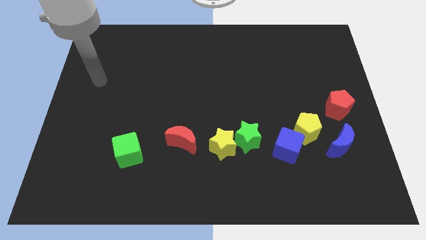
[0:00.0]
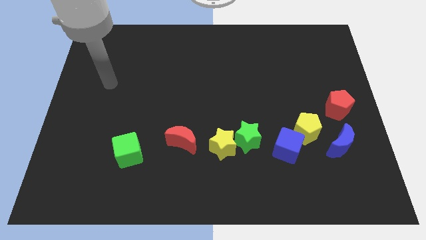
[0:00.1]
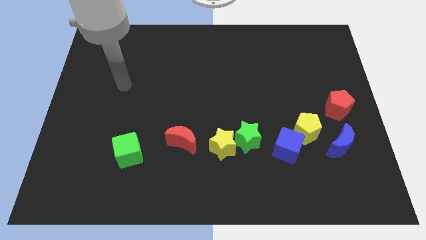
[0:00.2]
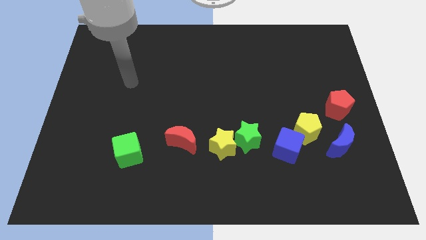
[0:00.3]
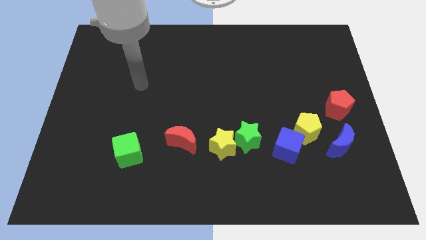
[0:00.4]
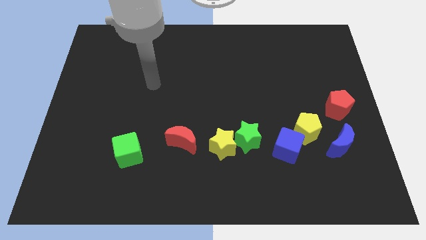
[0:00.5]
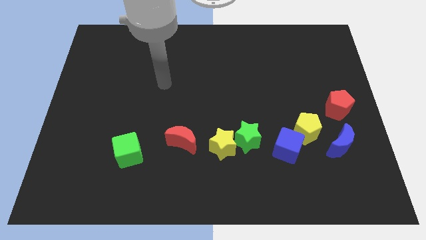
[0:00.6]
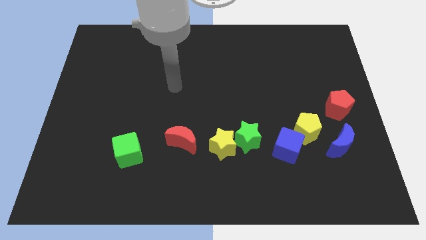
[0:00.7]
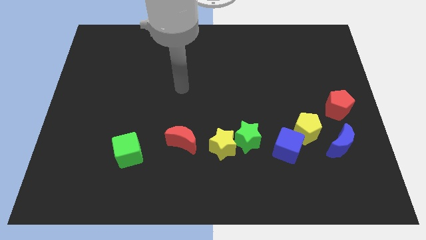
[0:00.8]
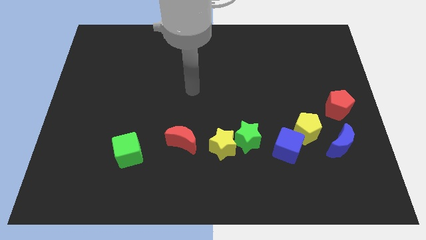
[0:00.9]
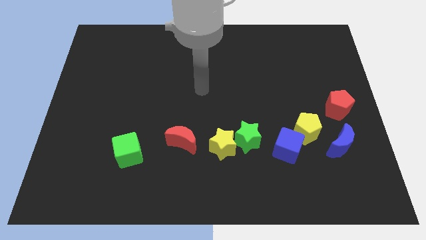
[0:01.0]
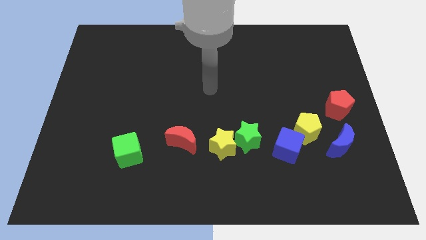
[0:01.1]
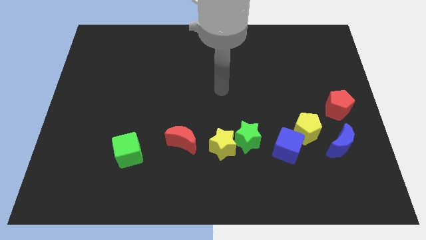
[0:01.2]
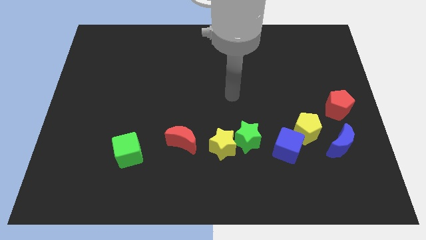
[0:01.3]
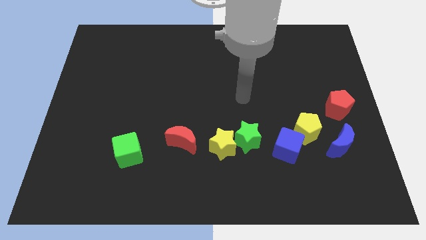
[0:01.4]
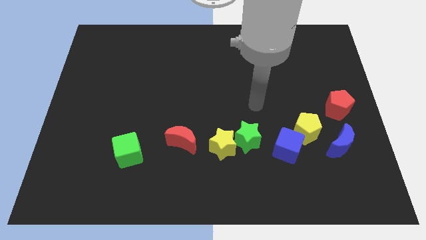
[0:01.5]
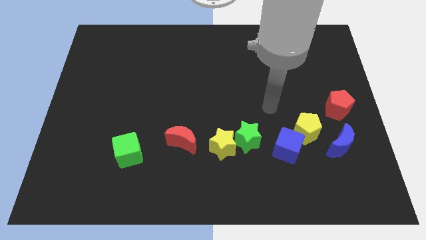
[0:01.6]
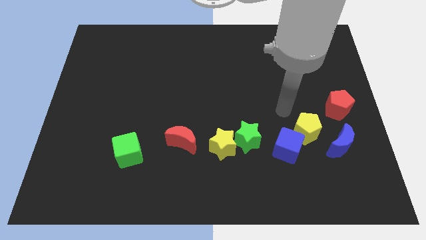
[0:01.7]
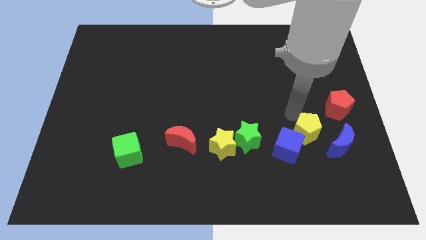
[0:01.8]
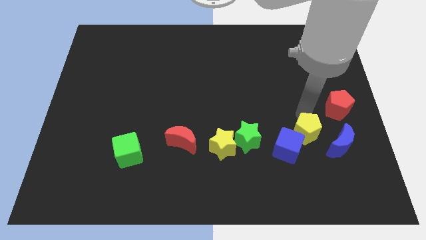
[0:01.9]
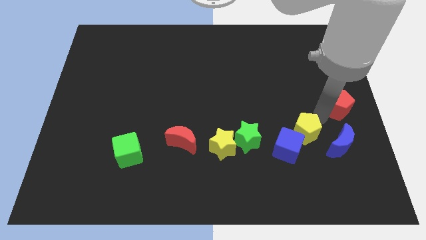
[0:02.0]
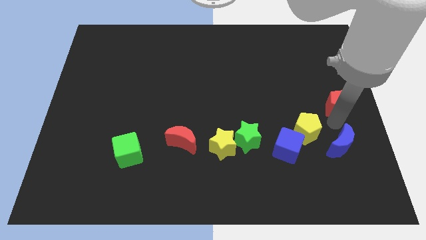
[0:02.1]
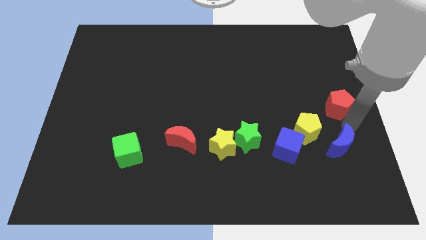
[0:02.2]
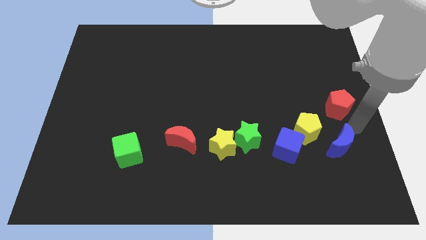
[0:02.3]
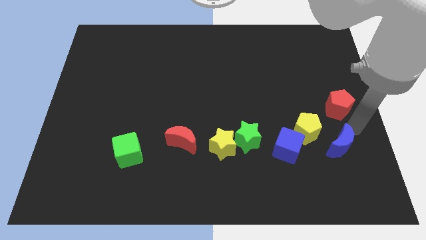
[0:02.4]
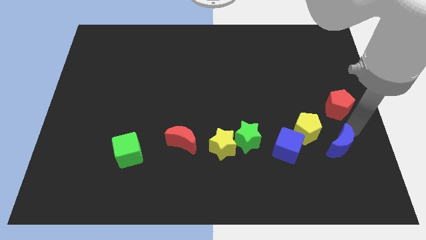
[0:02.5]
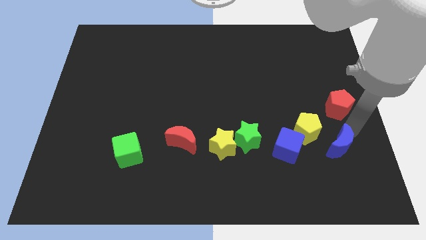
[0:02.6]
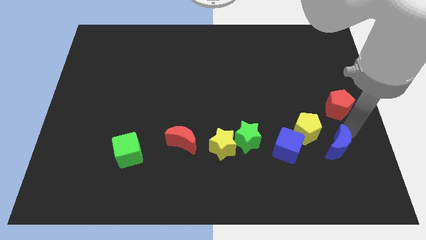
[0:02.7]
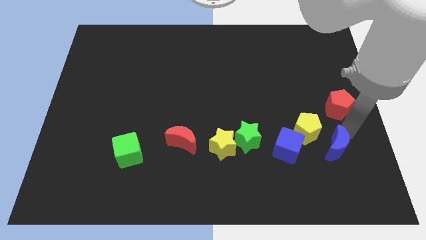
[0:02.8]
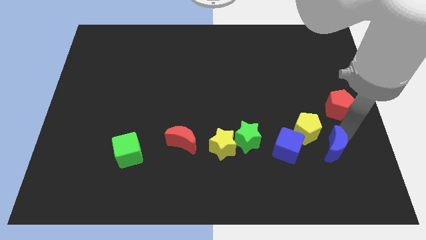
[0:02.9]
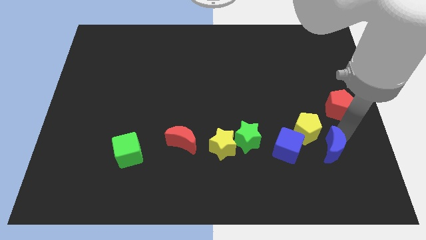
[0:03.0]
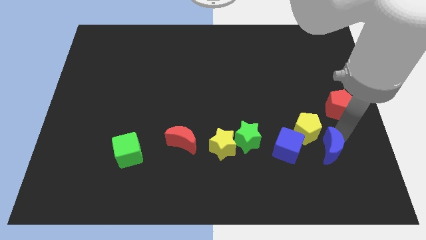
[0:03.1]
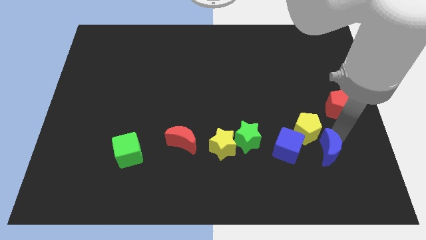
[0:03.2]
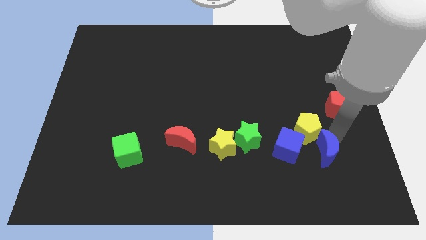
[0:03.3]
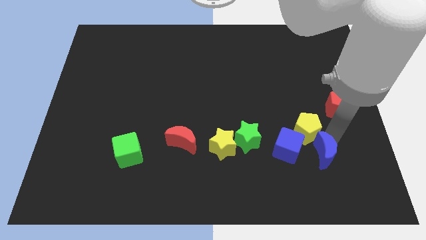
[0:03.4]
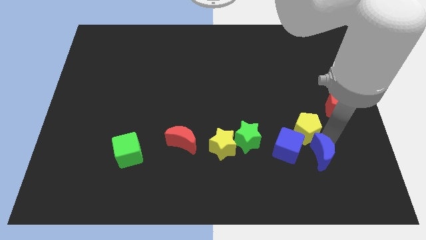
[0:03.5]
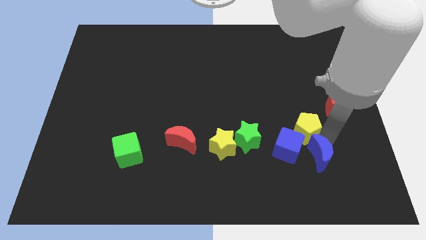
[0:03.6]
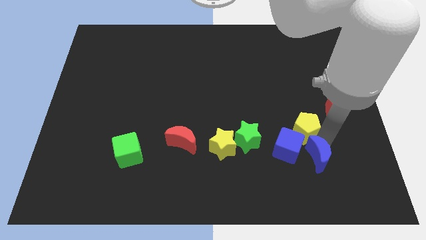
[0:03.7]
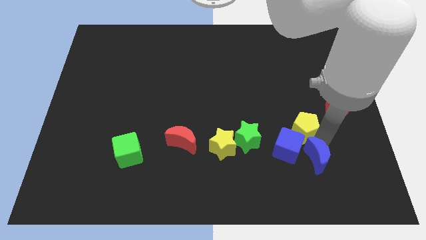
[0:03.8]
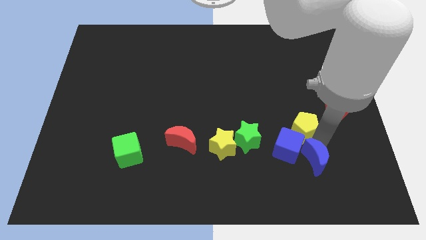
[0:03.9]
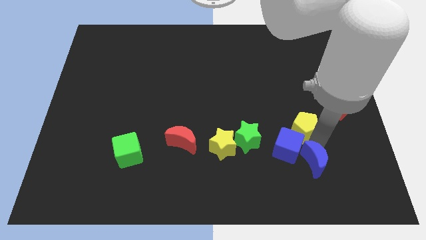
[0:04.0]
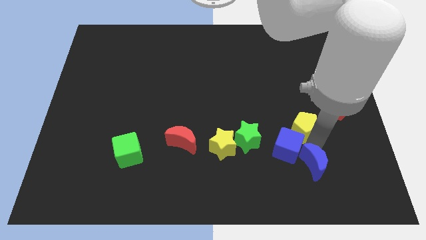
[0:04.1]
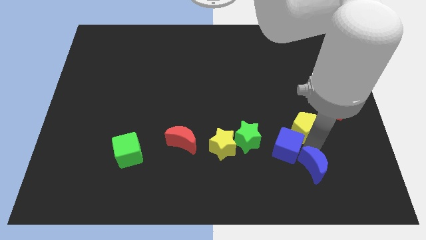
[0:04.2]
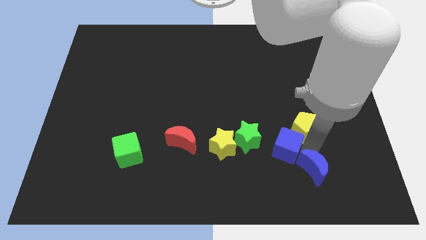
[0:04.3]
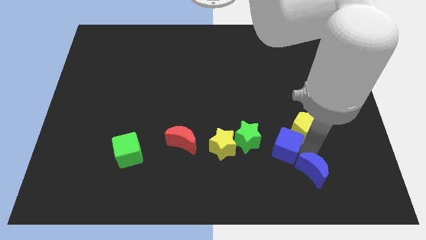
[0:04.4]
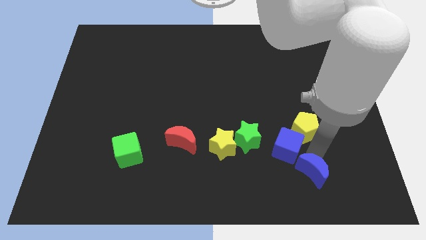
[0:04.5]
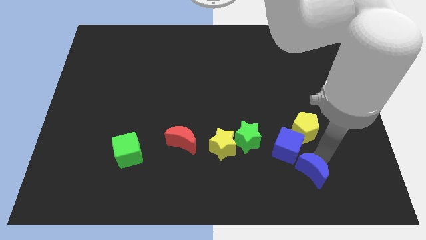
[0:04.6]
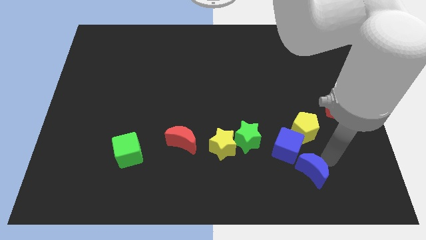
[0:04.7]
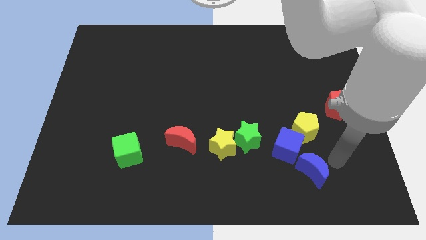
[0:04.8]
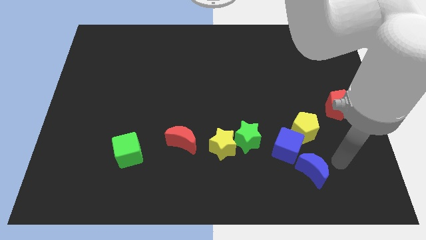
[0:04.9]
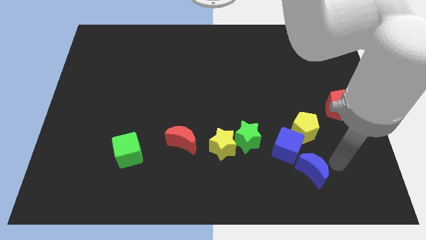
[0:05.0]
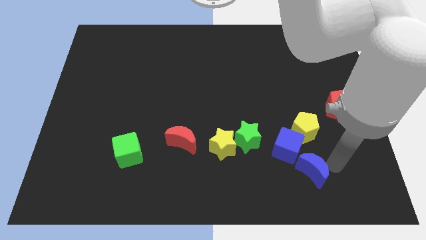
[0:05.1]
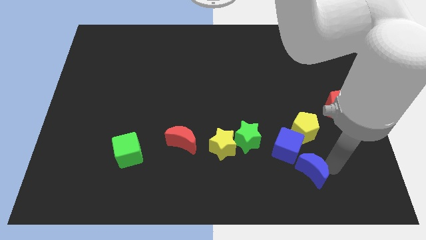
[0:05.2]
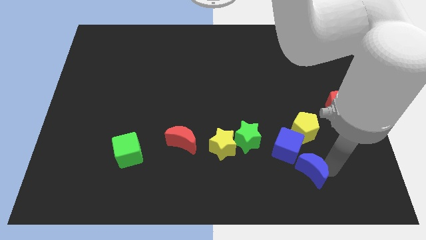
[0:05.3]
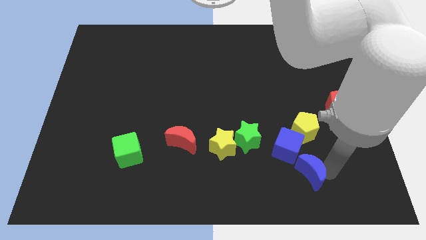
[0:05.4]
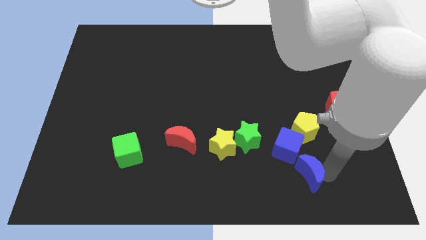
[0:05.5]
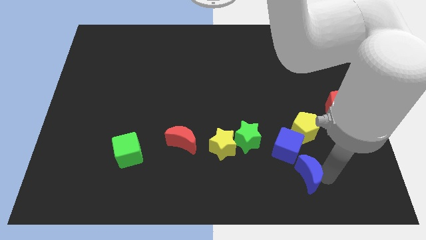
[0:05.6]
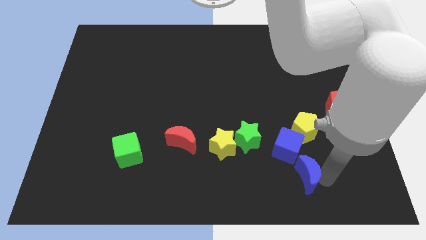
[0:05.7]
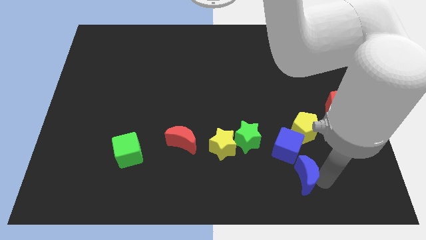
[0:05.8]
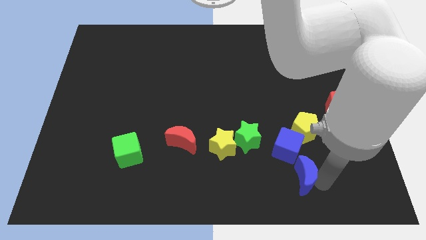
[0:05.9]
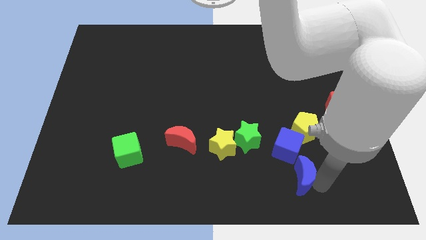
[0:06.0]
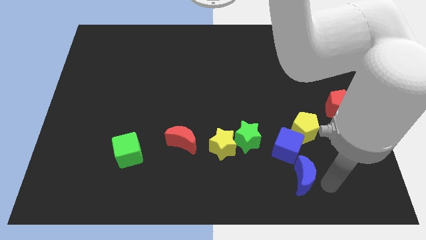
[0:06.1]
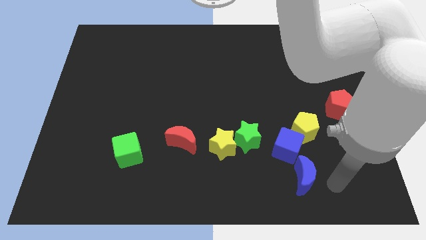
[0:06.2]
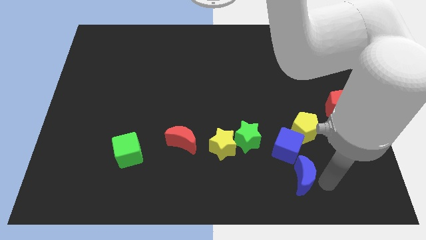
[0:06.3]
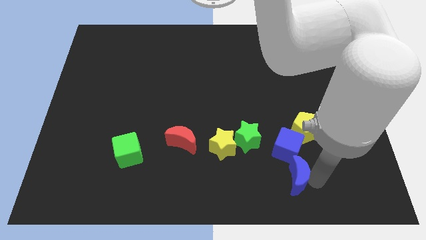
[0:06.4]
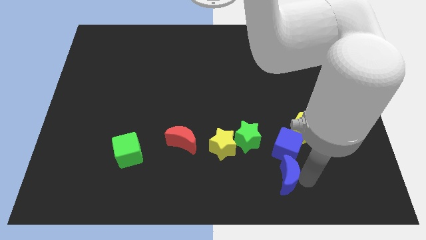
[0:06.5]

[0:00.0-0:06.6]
put the blue moon to the bottom left of the blue cube

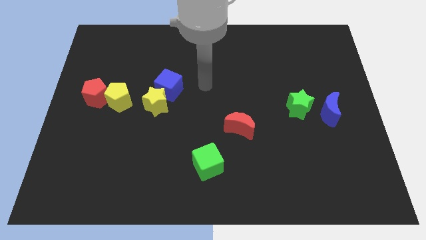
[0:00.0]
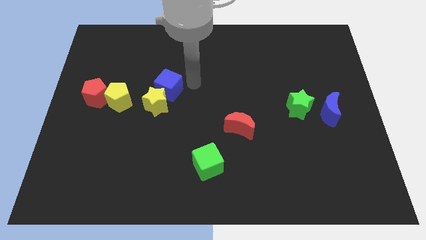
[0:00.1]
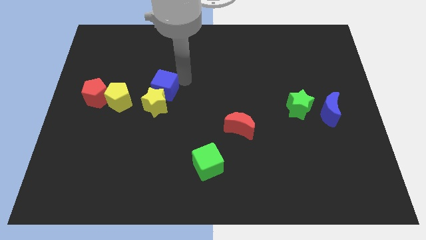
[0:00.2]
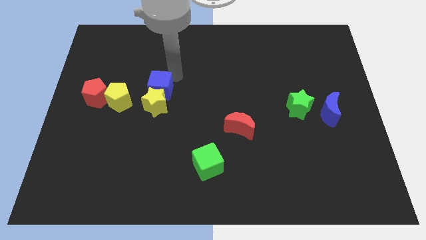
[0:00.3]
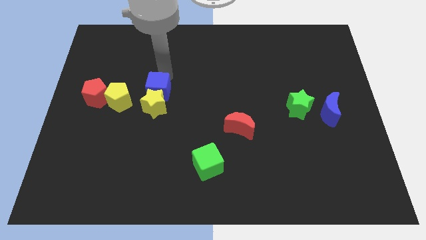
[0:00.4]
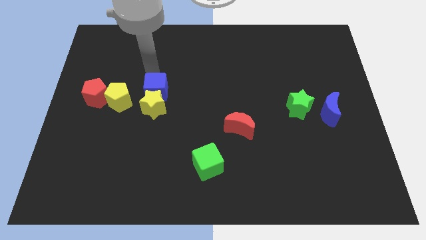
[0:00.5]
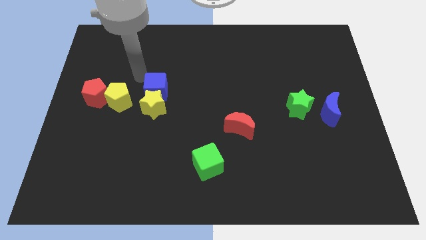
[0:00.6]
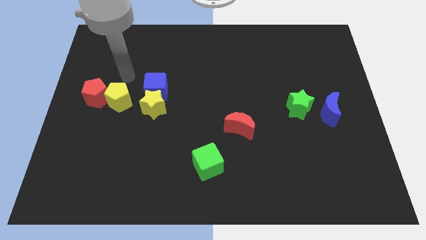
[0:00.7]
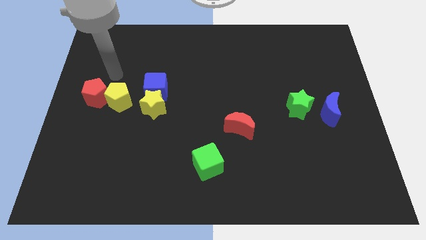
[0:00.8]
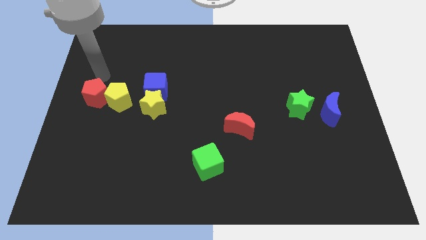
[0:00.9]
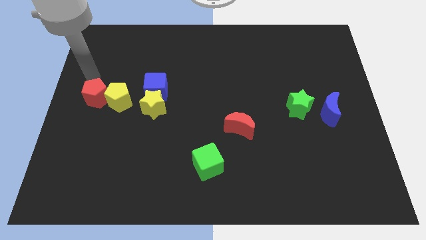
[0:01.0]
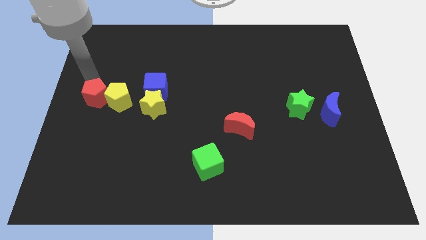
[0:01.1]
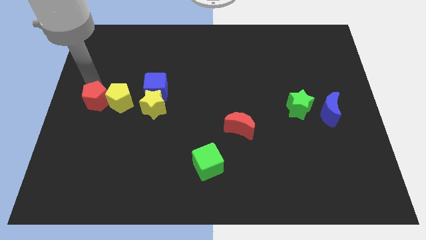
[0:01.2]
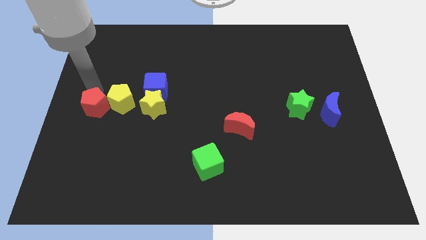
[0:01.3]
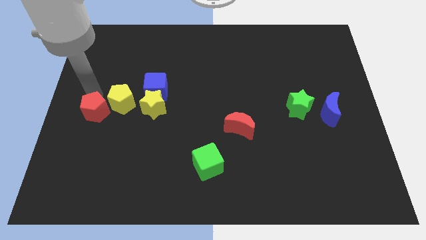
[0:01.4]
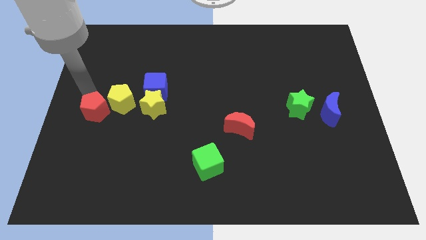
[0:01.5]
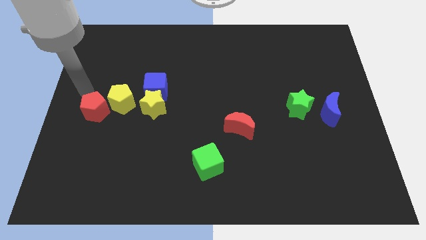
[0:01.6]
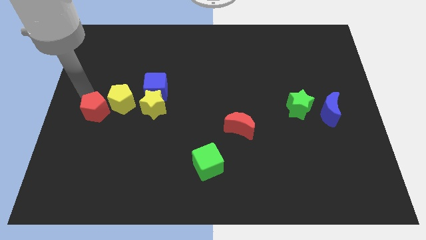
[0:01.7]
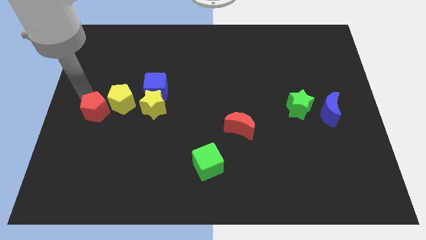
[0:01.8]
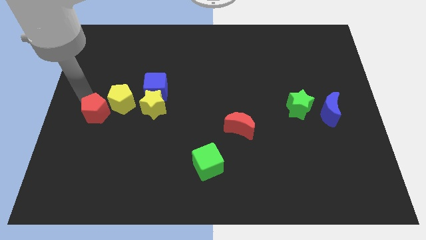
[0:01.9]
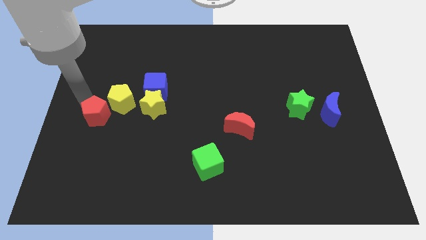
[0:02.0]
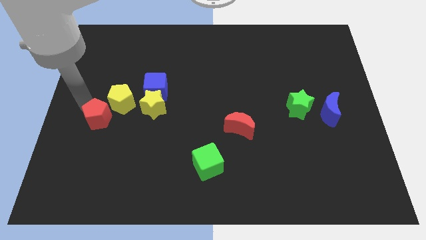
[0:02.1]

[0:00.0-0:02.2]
put the red pentagon below the yellow pentagon
